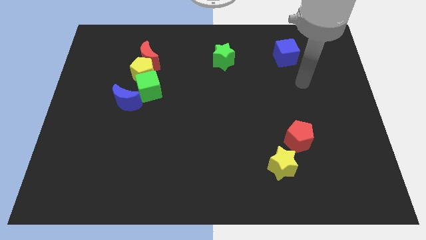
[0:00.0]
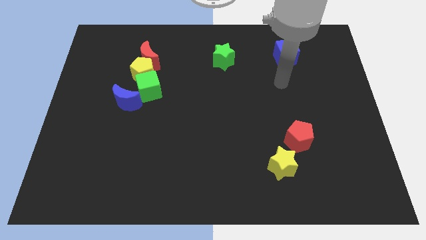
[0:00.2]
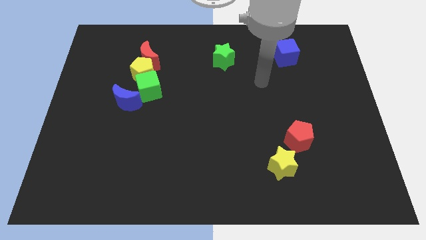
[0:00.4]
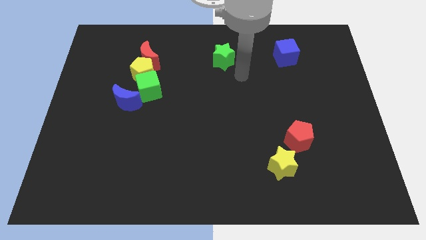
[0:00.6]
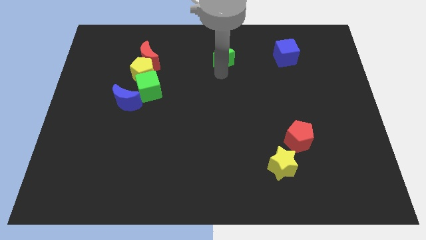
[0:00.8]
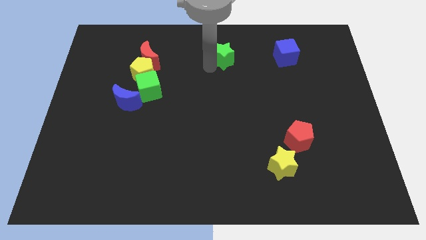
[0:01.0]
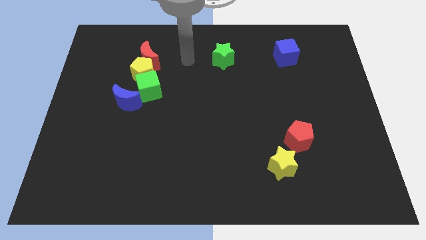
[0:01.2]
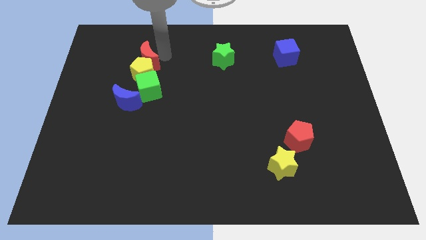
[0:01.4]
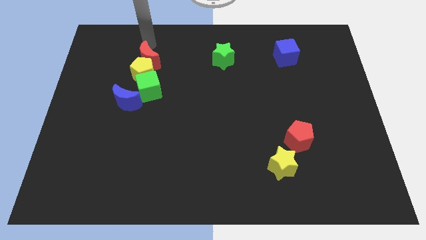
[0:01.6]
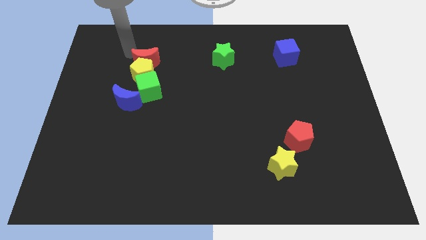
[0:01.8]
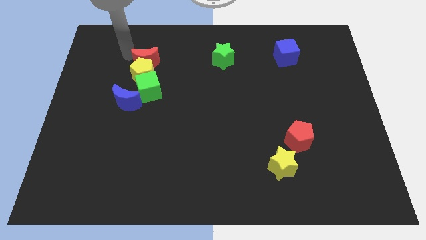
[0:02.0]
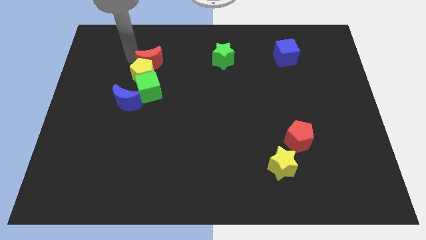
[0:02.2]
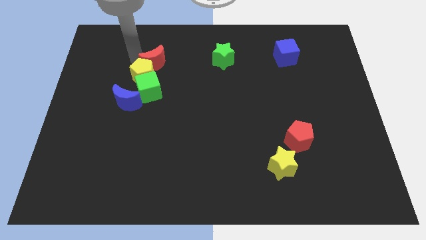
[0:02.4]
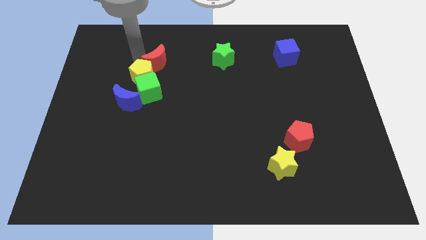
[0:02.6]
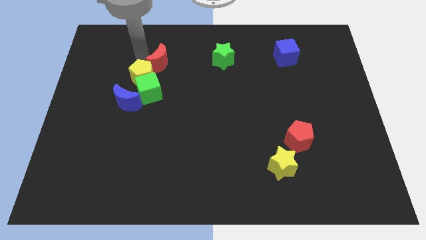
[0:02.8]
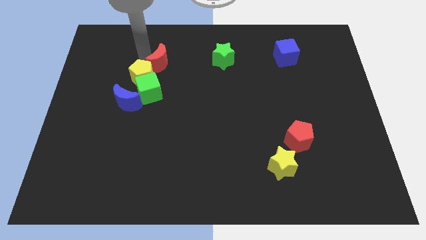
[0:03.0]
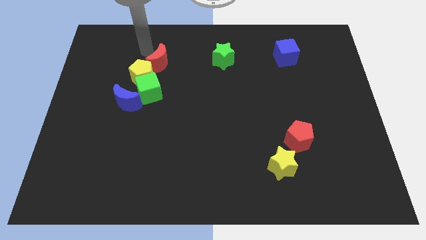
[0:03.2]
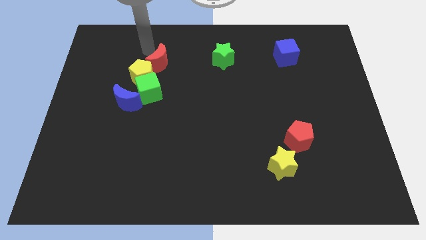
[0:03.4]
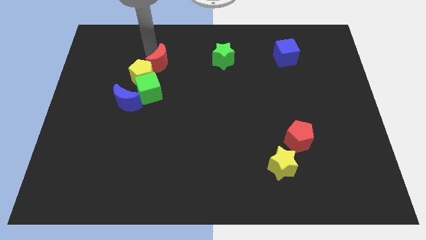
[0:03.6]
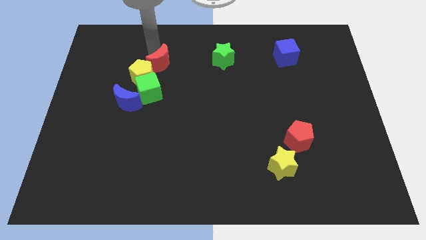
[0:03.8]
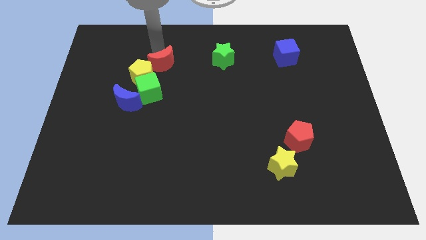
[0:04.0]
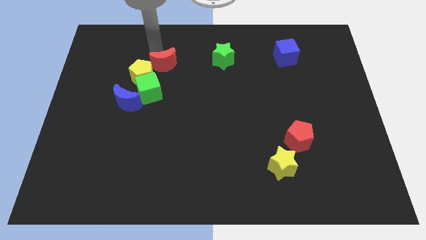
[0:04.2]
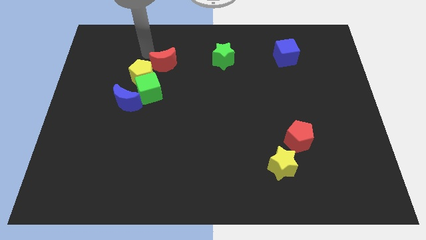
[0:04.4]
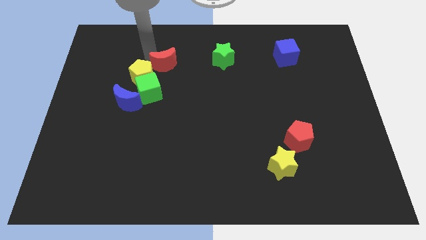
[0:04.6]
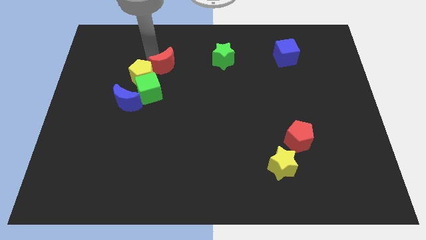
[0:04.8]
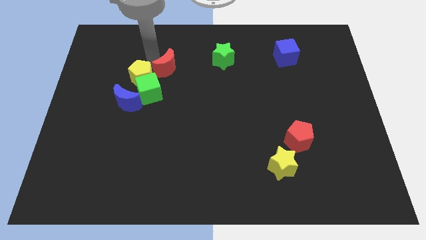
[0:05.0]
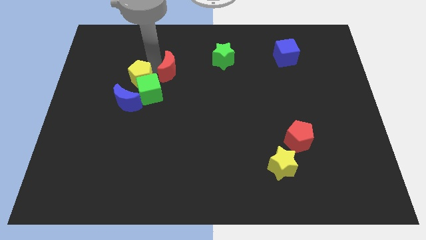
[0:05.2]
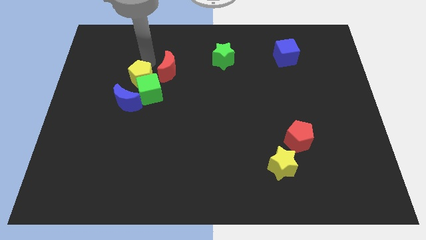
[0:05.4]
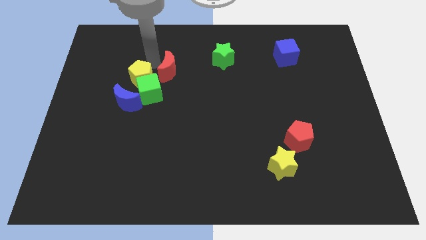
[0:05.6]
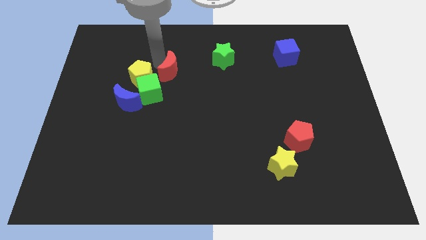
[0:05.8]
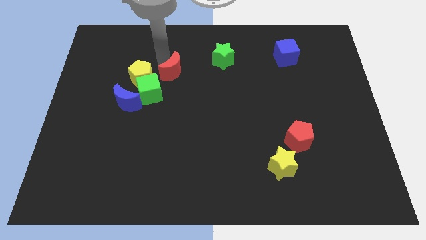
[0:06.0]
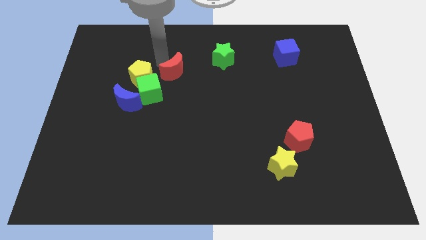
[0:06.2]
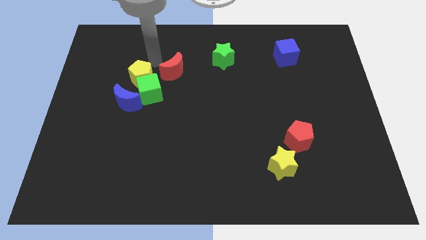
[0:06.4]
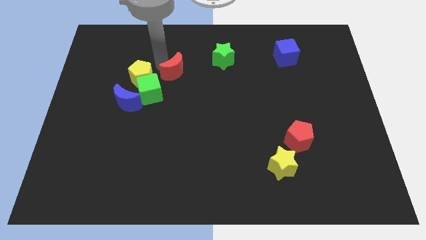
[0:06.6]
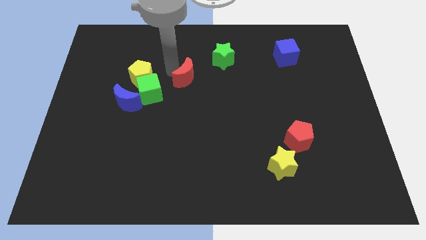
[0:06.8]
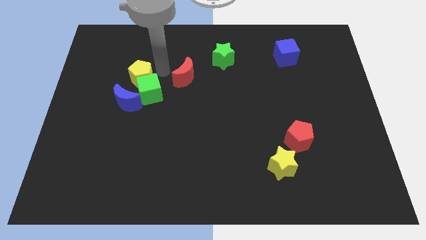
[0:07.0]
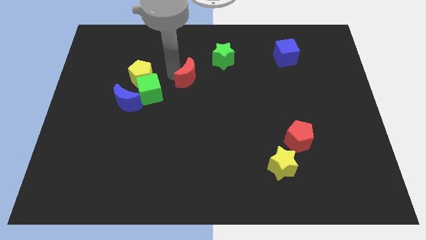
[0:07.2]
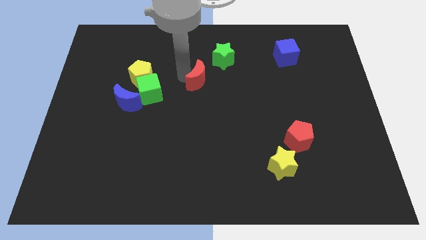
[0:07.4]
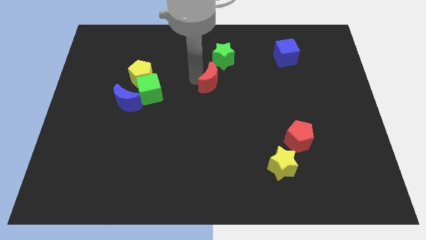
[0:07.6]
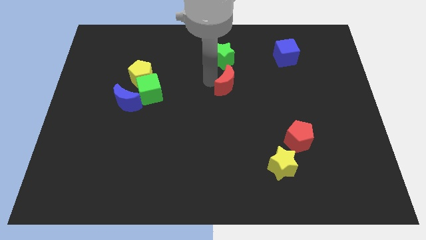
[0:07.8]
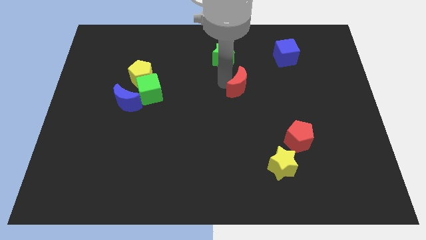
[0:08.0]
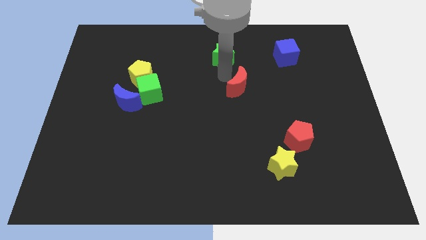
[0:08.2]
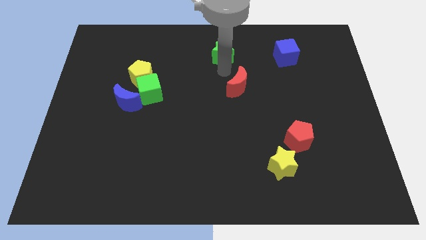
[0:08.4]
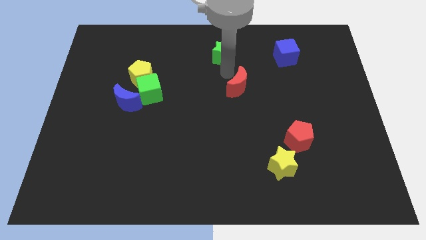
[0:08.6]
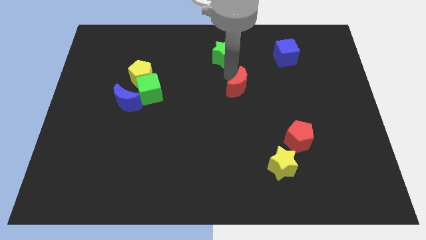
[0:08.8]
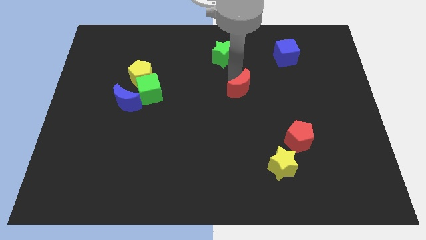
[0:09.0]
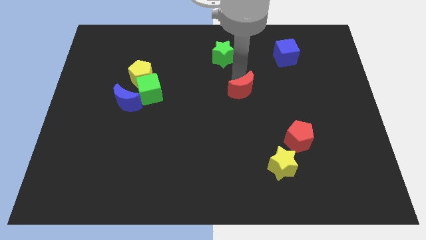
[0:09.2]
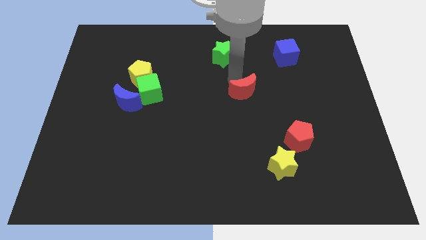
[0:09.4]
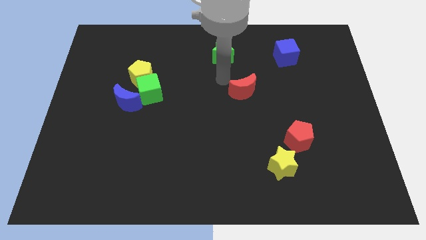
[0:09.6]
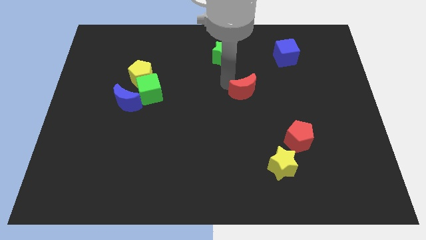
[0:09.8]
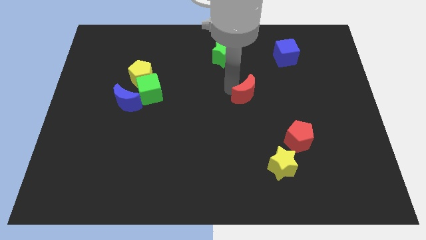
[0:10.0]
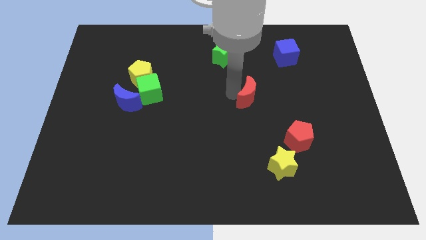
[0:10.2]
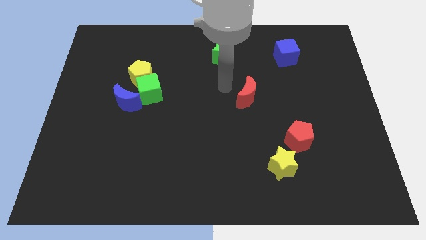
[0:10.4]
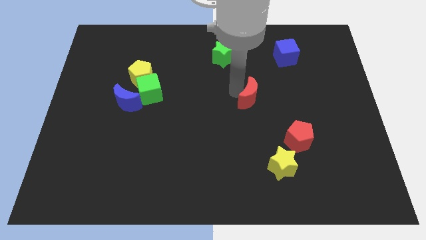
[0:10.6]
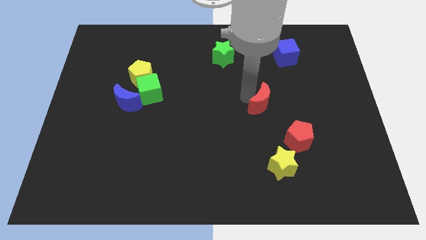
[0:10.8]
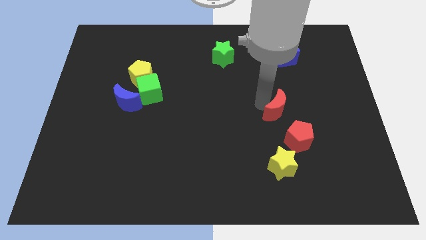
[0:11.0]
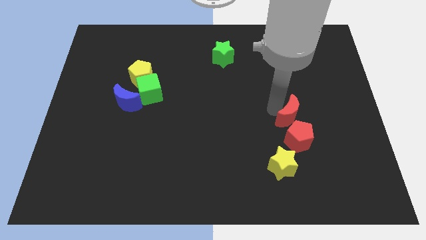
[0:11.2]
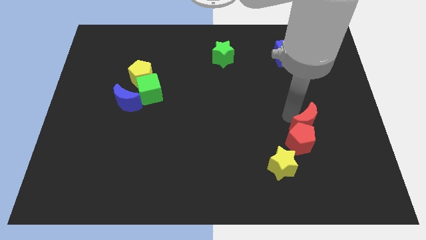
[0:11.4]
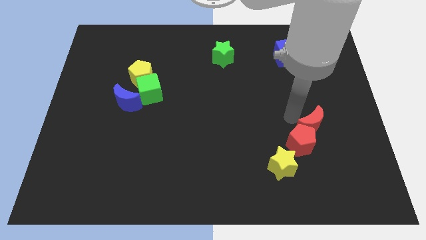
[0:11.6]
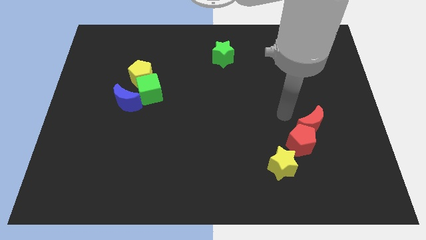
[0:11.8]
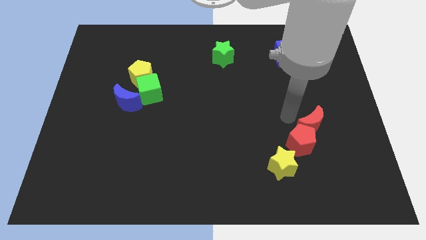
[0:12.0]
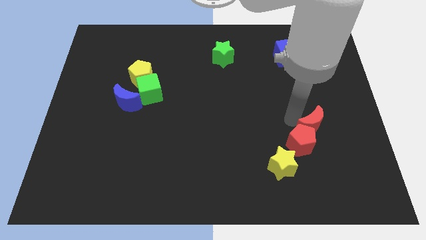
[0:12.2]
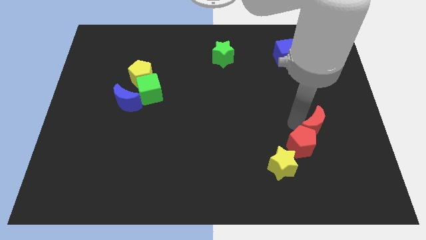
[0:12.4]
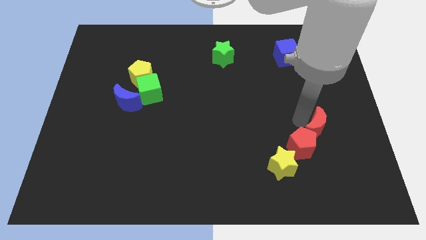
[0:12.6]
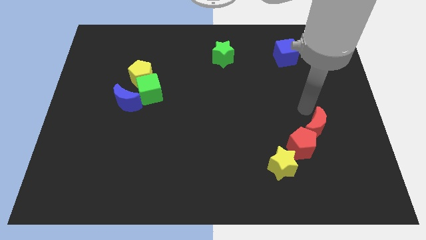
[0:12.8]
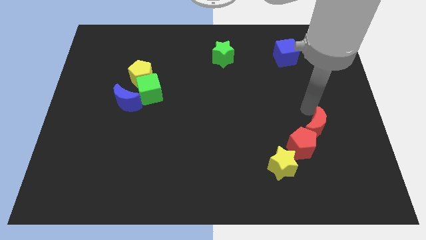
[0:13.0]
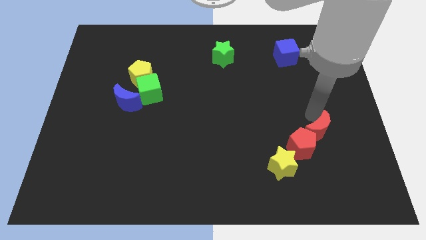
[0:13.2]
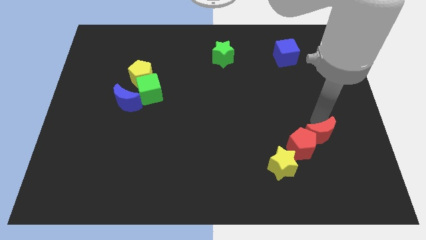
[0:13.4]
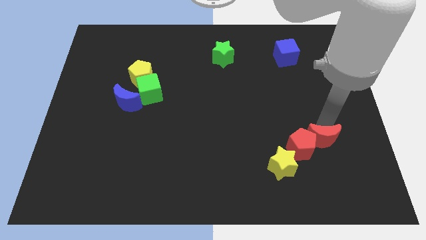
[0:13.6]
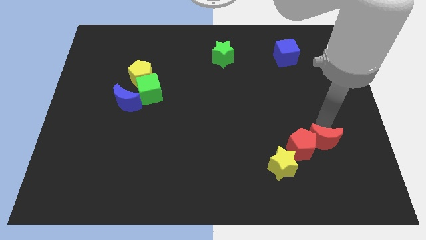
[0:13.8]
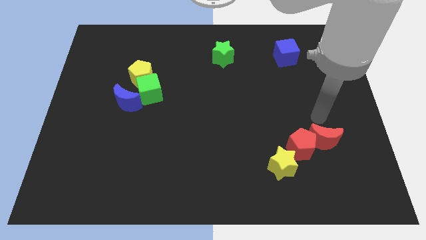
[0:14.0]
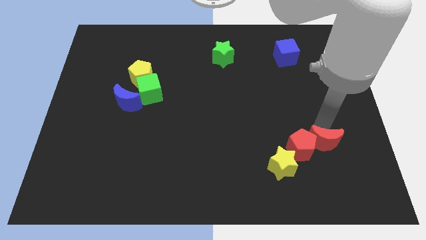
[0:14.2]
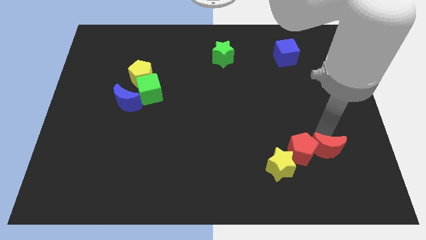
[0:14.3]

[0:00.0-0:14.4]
move the red moon to the bottom right side of the red pentagon
